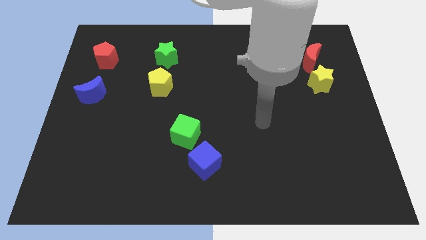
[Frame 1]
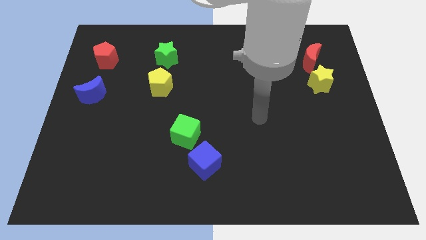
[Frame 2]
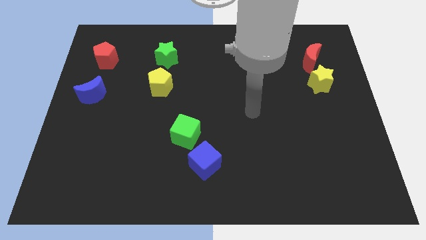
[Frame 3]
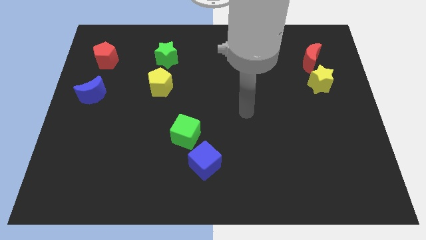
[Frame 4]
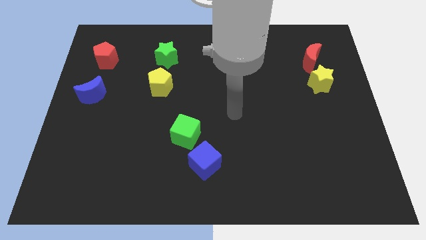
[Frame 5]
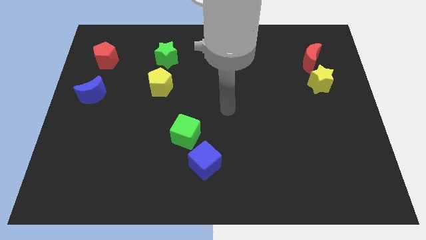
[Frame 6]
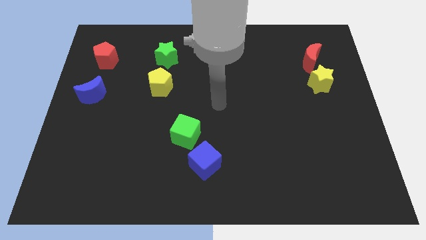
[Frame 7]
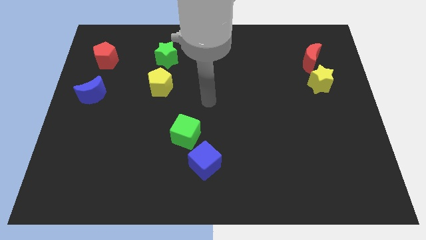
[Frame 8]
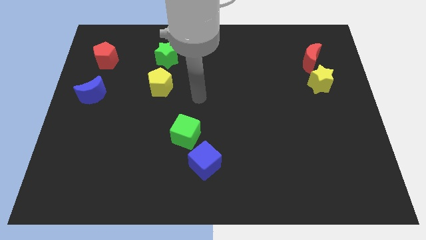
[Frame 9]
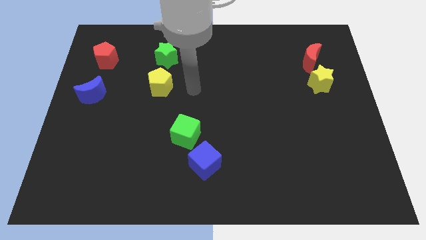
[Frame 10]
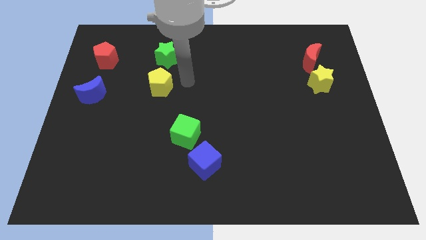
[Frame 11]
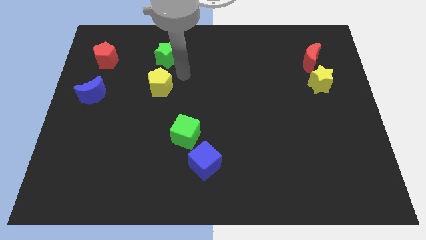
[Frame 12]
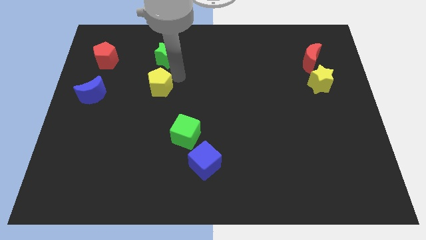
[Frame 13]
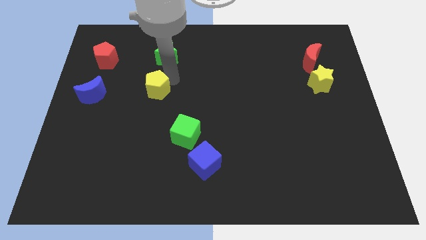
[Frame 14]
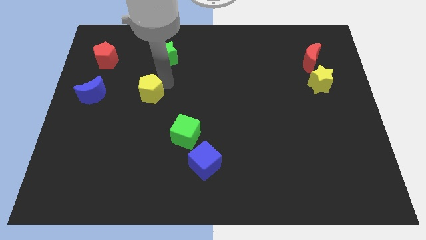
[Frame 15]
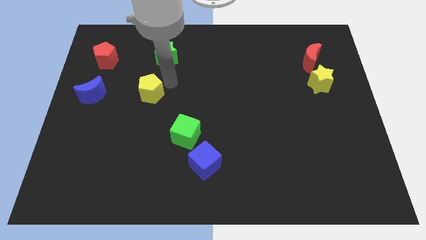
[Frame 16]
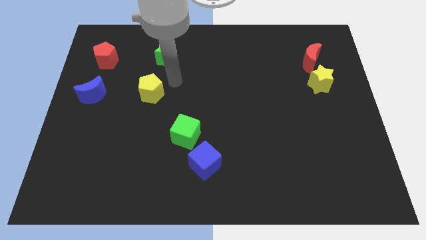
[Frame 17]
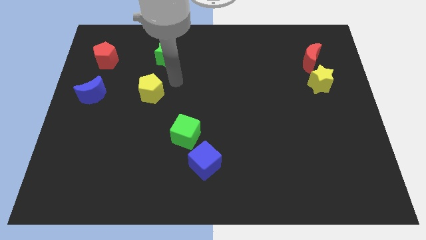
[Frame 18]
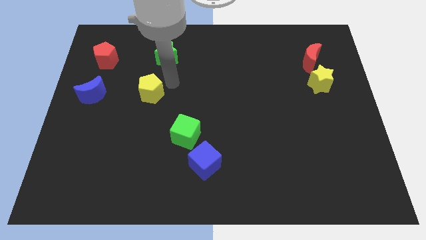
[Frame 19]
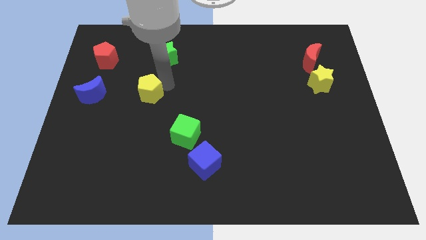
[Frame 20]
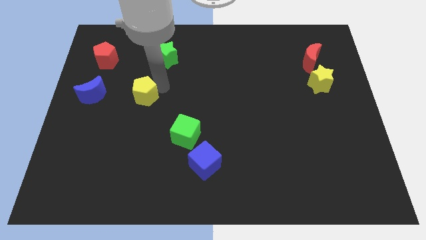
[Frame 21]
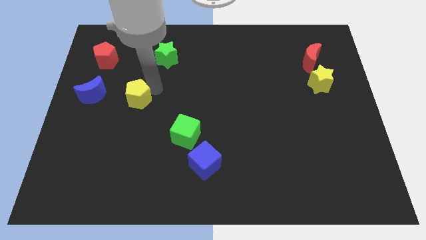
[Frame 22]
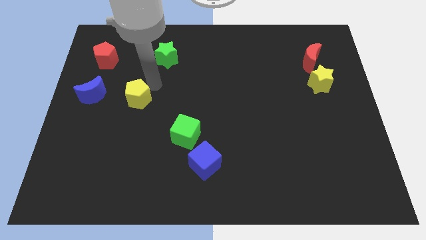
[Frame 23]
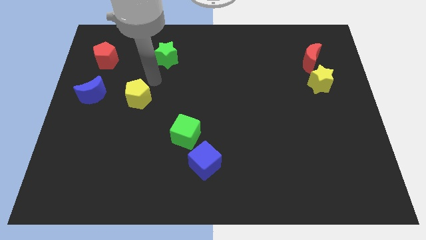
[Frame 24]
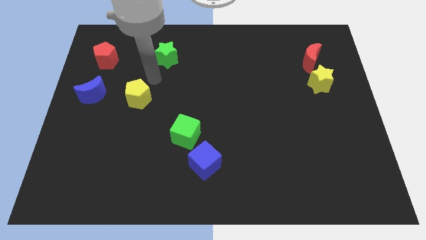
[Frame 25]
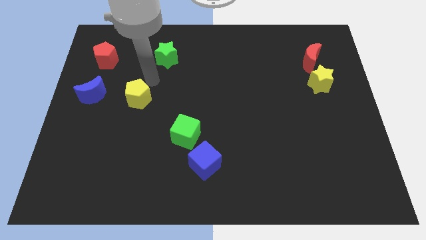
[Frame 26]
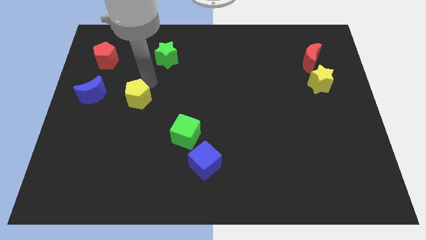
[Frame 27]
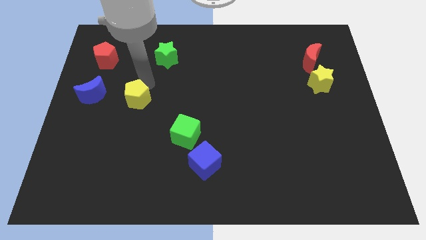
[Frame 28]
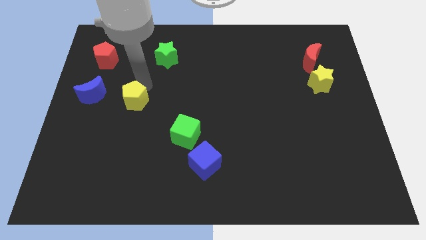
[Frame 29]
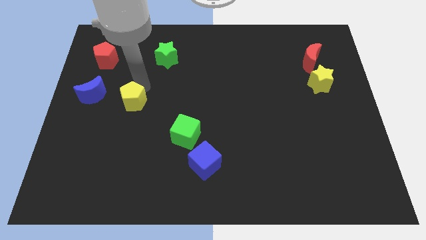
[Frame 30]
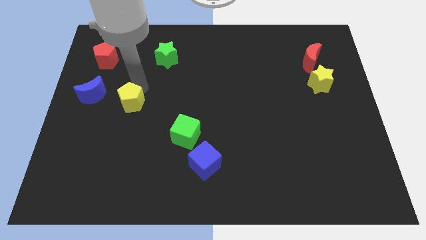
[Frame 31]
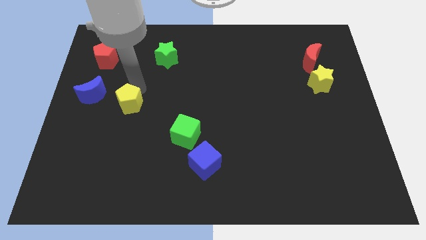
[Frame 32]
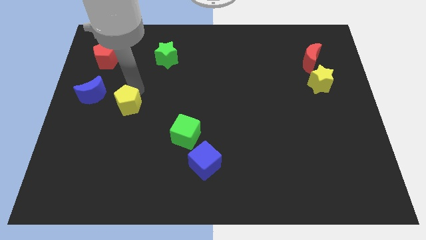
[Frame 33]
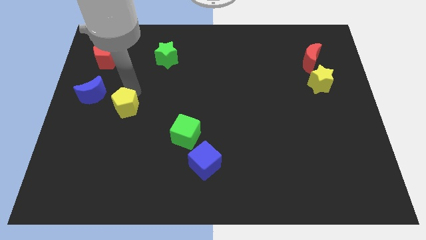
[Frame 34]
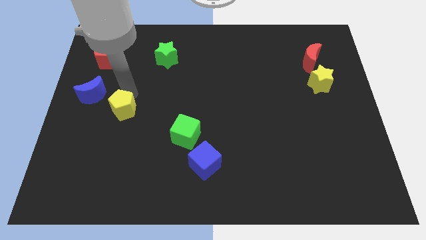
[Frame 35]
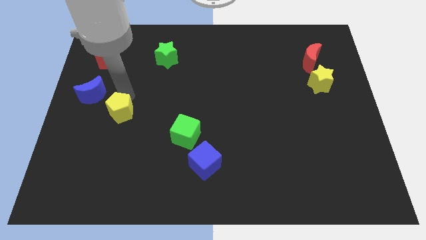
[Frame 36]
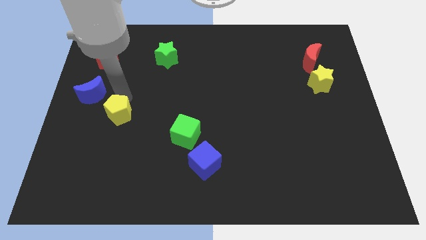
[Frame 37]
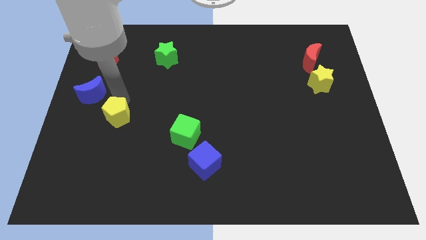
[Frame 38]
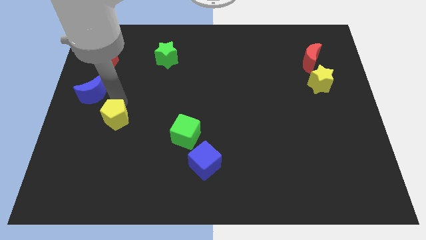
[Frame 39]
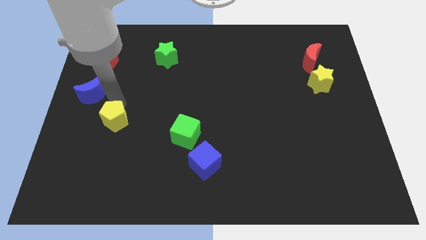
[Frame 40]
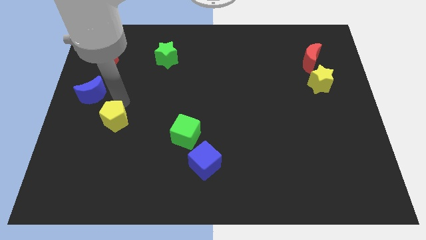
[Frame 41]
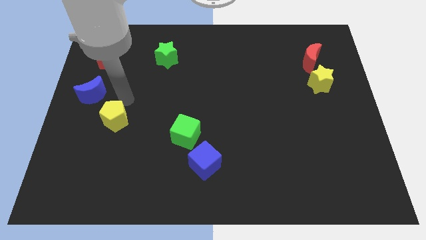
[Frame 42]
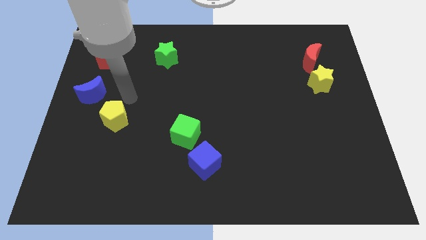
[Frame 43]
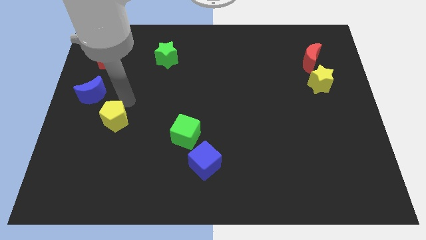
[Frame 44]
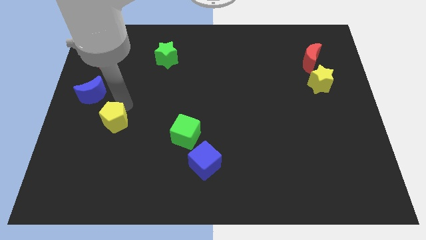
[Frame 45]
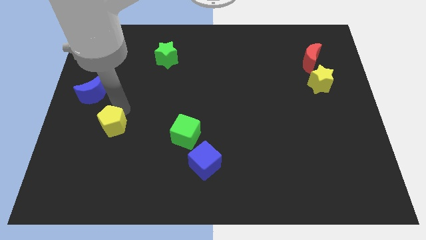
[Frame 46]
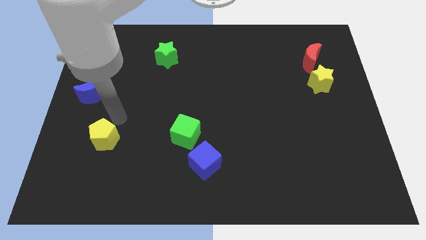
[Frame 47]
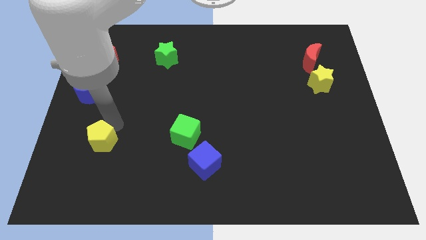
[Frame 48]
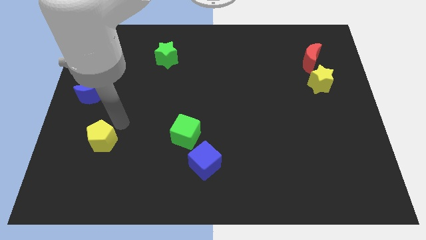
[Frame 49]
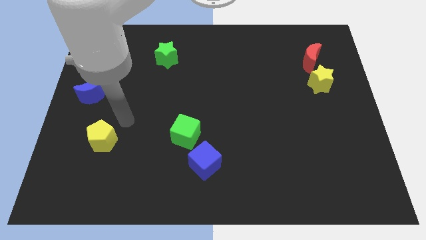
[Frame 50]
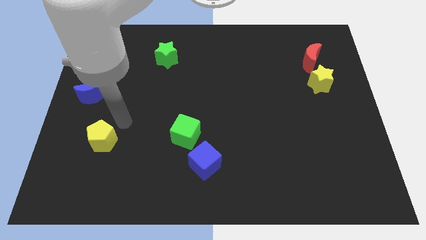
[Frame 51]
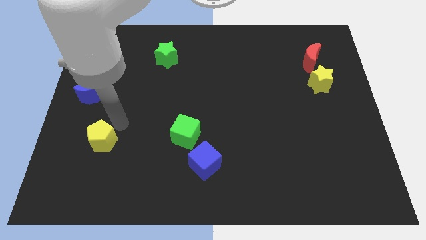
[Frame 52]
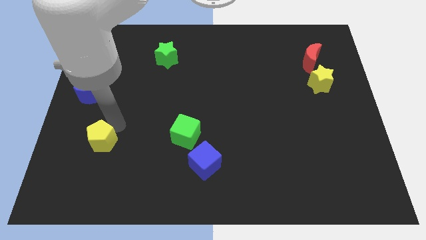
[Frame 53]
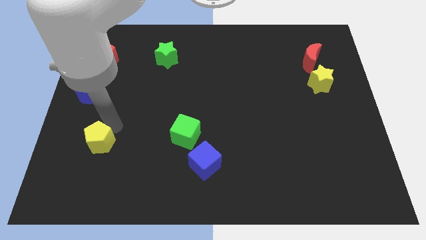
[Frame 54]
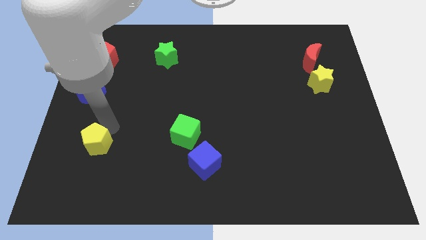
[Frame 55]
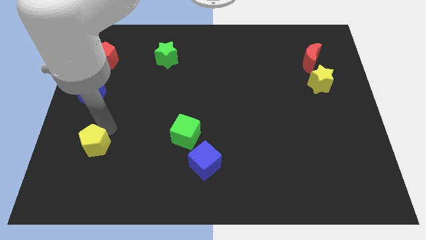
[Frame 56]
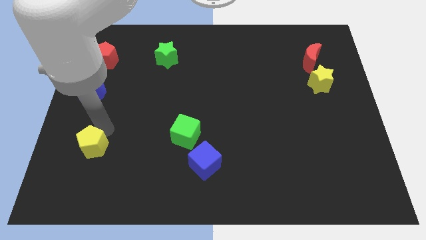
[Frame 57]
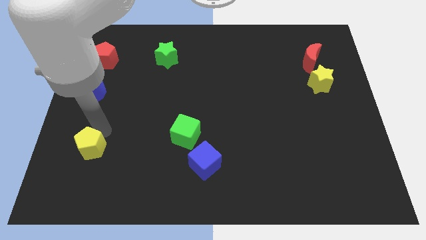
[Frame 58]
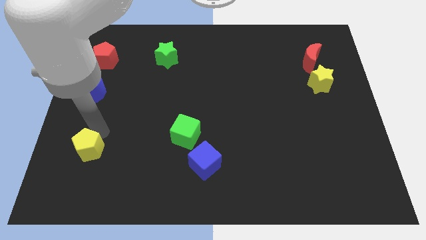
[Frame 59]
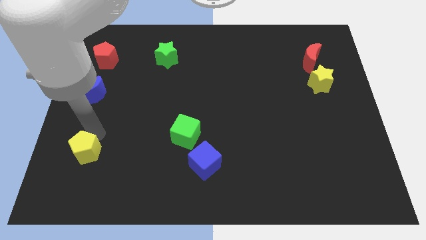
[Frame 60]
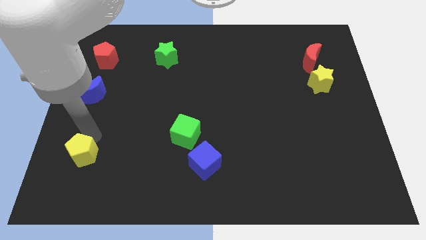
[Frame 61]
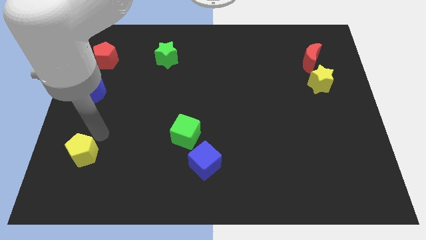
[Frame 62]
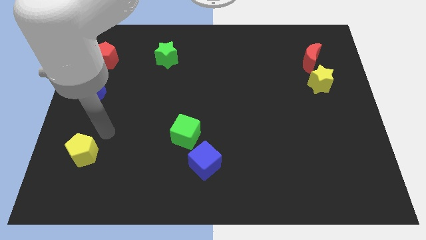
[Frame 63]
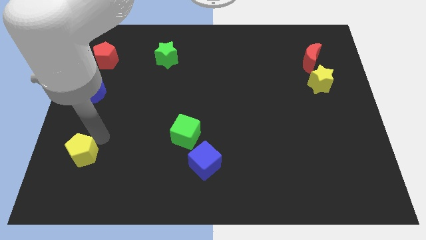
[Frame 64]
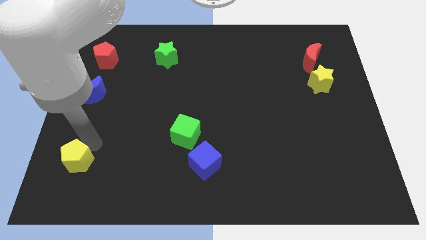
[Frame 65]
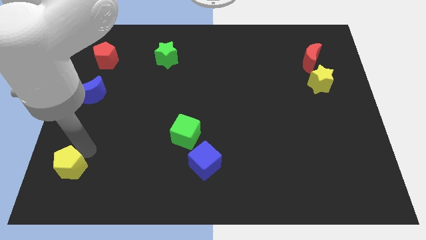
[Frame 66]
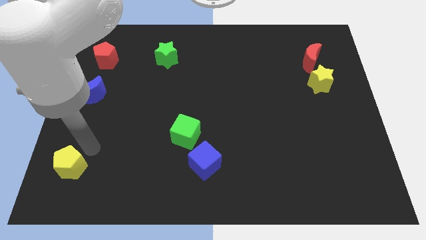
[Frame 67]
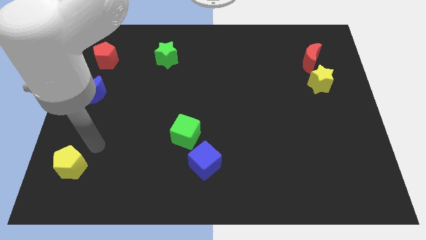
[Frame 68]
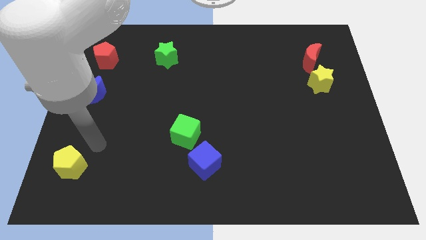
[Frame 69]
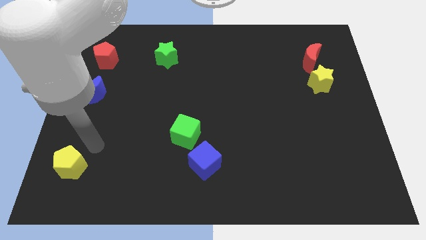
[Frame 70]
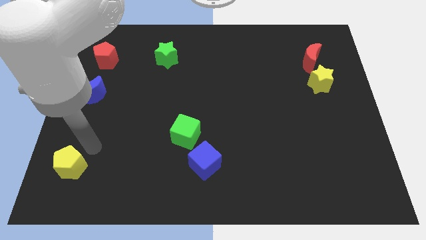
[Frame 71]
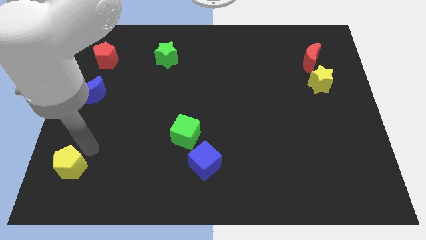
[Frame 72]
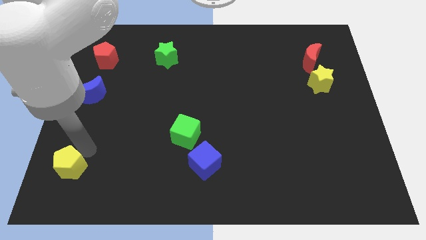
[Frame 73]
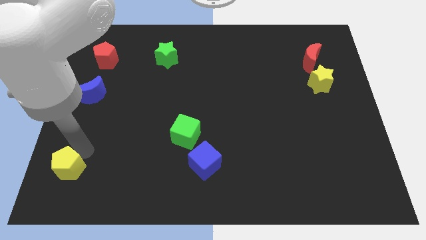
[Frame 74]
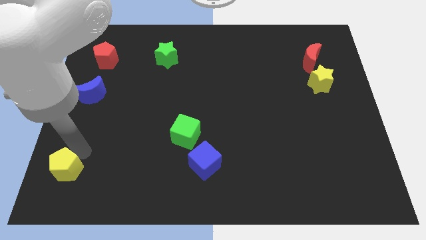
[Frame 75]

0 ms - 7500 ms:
slide the yellow pentagon to the bottom left of the board
